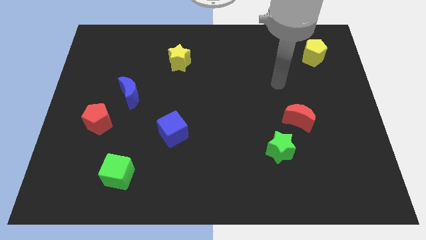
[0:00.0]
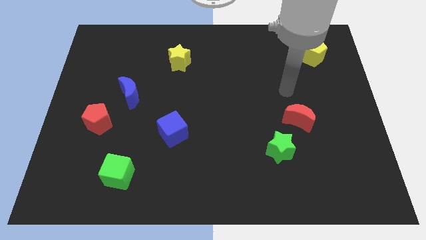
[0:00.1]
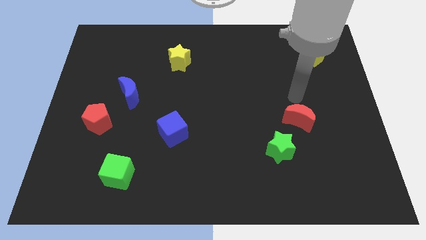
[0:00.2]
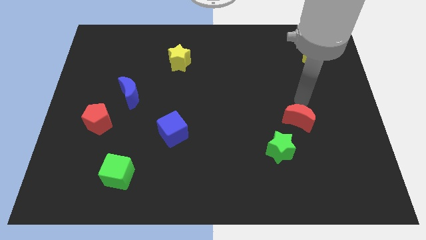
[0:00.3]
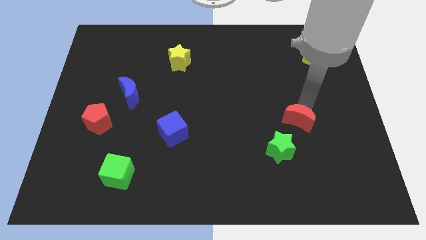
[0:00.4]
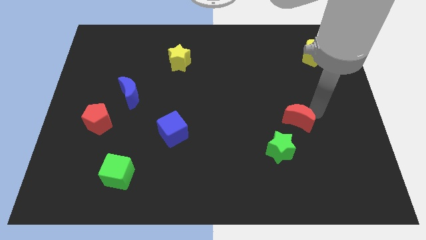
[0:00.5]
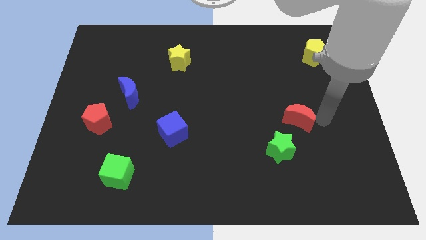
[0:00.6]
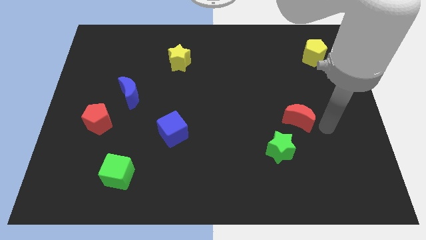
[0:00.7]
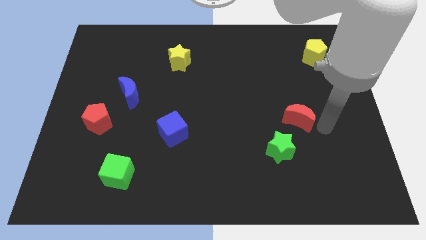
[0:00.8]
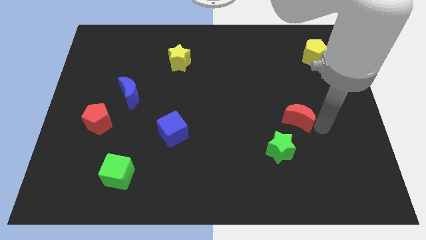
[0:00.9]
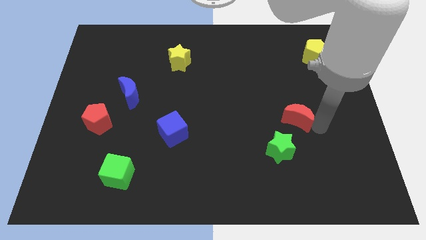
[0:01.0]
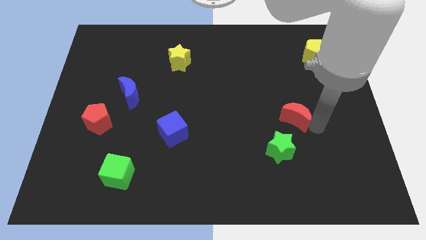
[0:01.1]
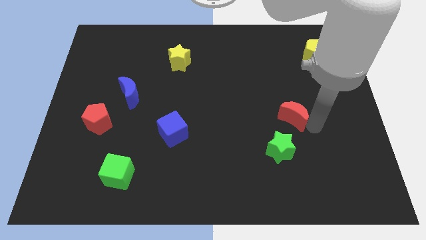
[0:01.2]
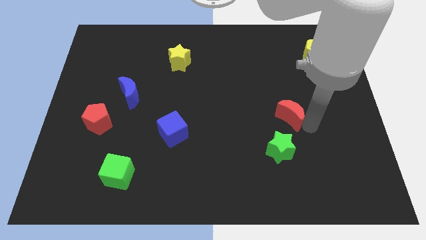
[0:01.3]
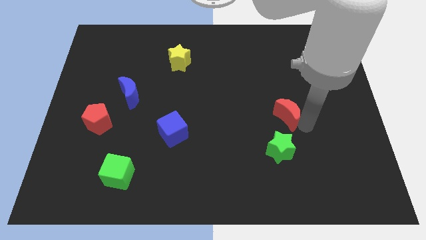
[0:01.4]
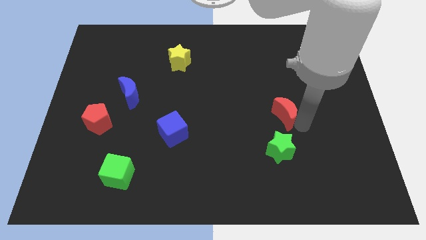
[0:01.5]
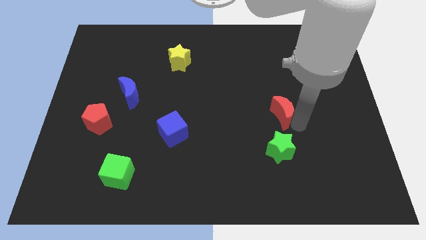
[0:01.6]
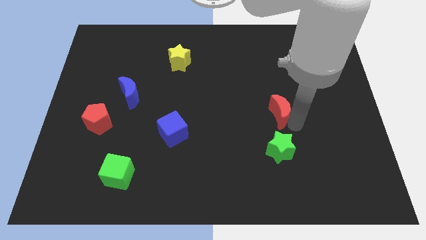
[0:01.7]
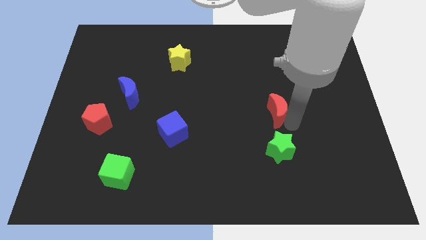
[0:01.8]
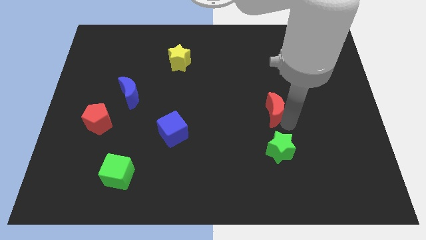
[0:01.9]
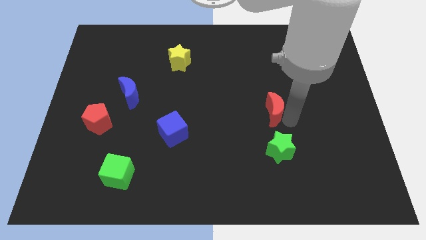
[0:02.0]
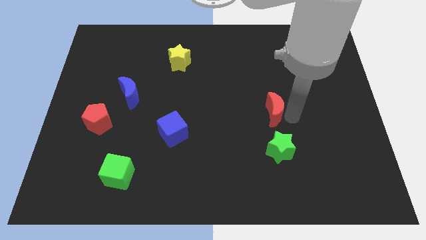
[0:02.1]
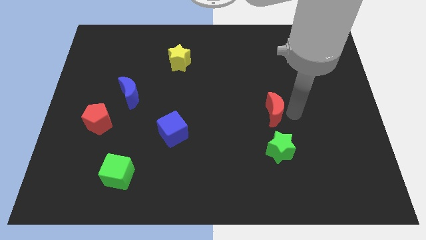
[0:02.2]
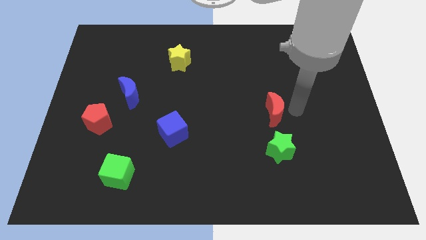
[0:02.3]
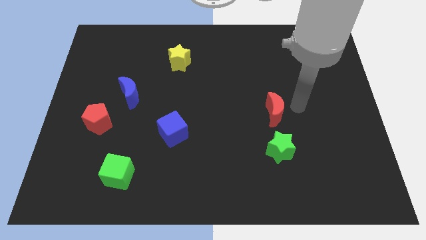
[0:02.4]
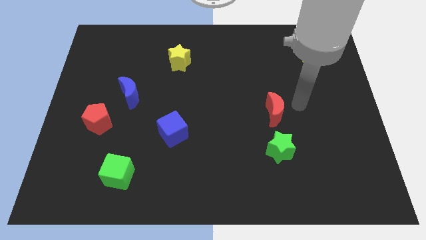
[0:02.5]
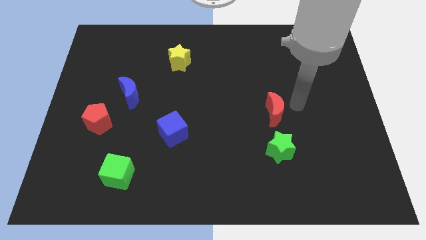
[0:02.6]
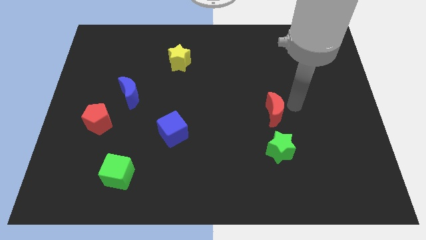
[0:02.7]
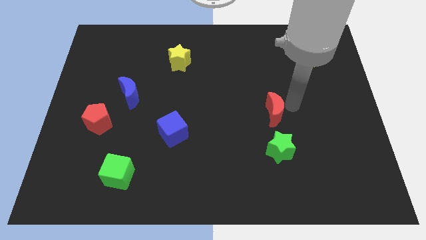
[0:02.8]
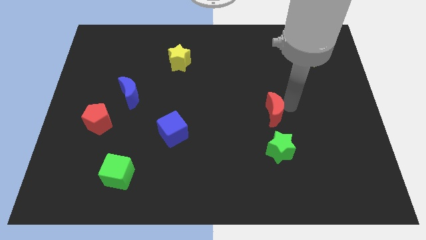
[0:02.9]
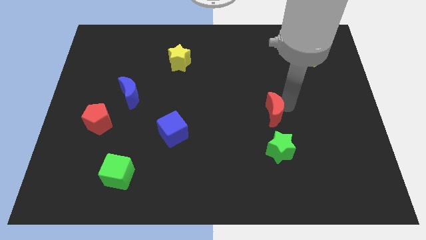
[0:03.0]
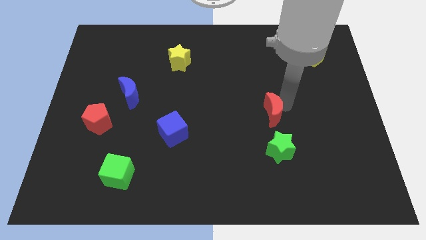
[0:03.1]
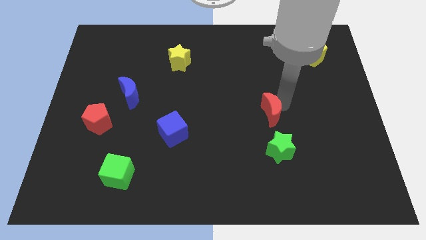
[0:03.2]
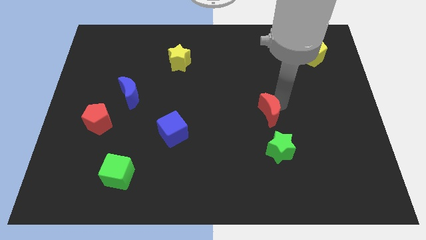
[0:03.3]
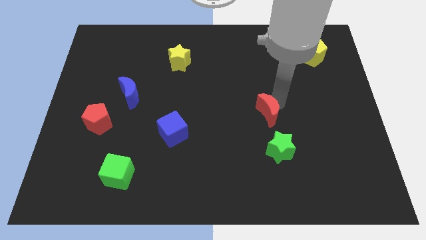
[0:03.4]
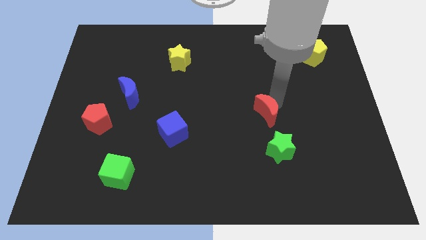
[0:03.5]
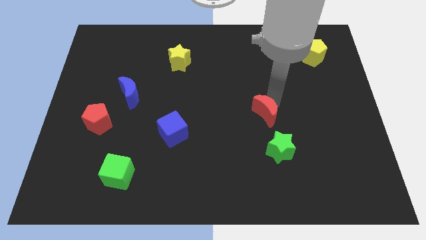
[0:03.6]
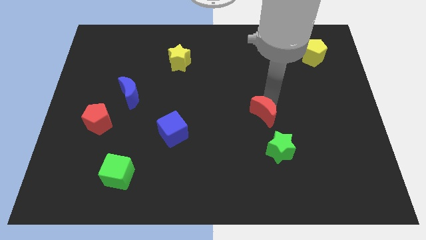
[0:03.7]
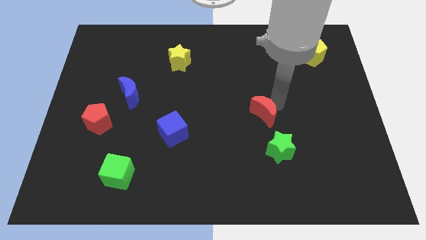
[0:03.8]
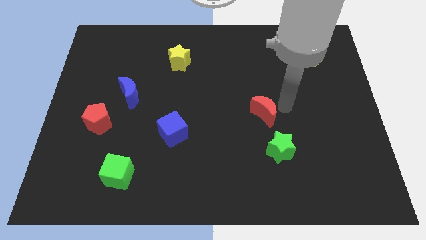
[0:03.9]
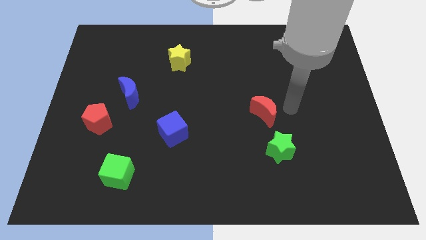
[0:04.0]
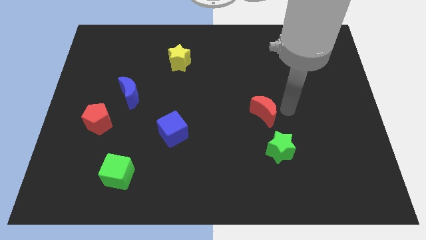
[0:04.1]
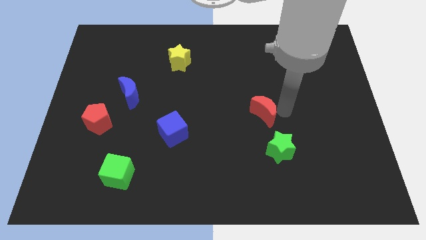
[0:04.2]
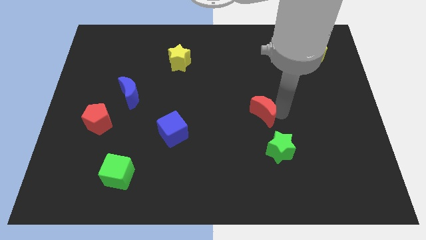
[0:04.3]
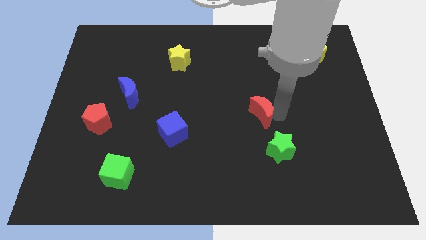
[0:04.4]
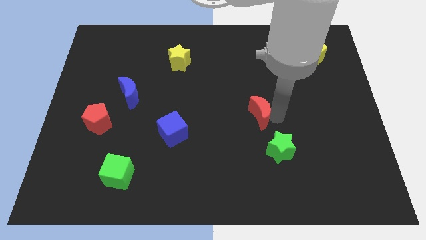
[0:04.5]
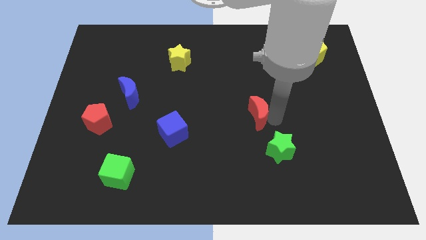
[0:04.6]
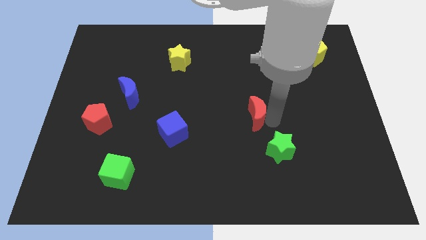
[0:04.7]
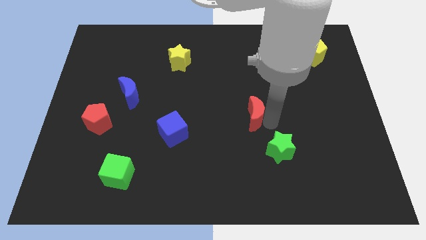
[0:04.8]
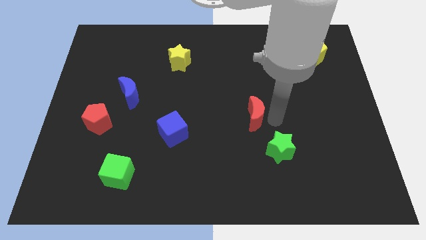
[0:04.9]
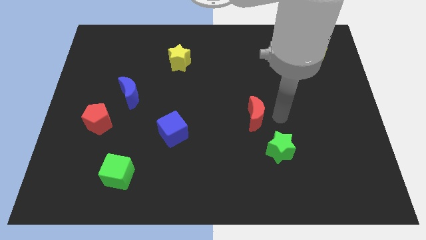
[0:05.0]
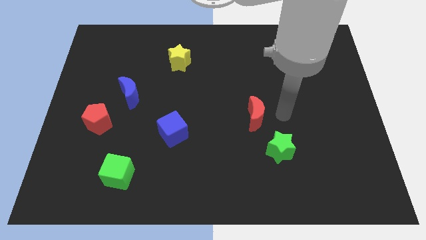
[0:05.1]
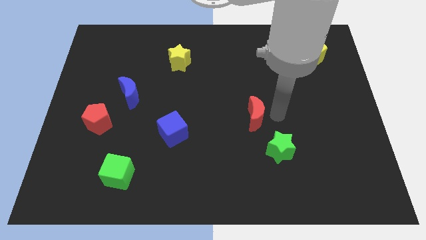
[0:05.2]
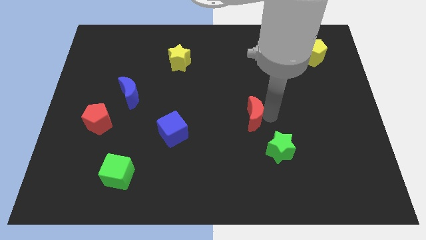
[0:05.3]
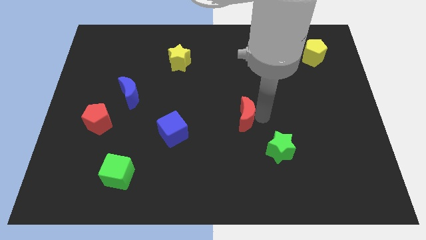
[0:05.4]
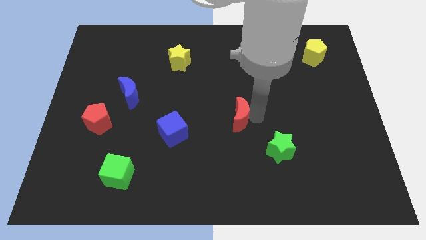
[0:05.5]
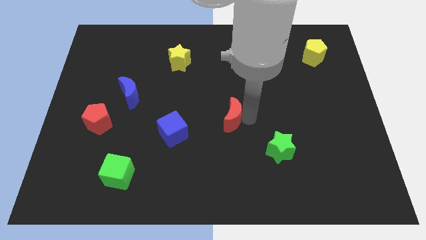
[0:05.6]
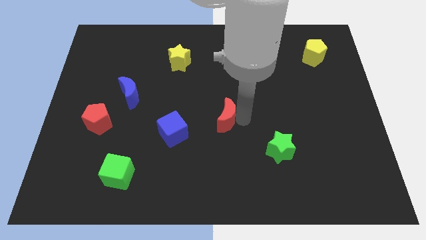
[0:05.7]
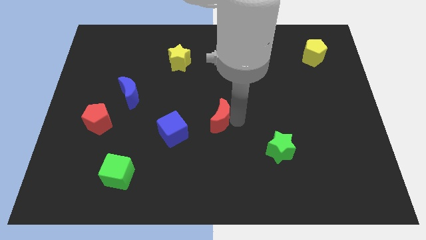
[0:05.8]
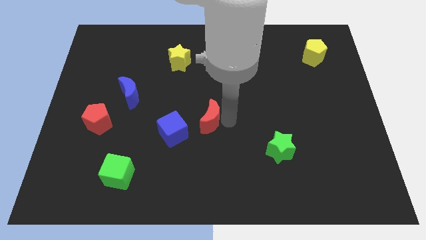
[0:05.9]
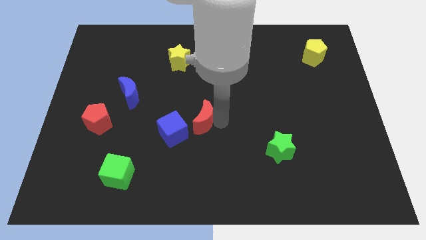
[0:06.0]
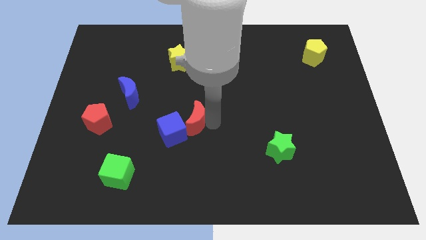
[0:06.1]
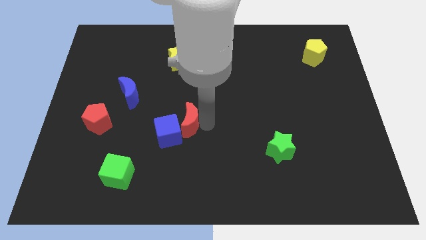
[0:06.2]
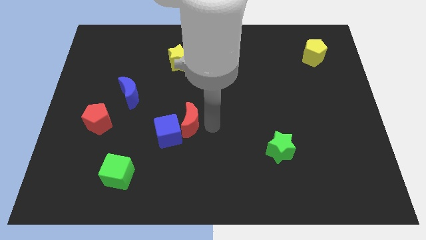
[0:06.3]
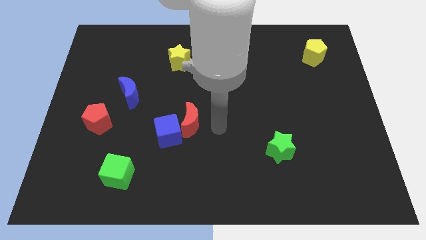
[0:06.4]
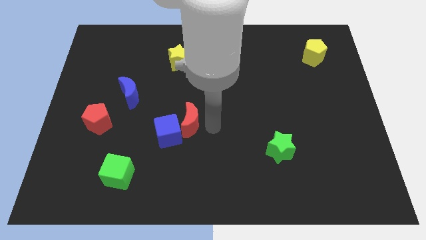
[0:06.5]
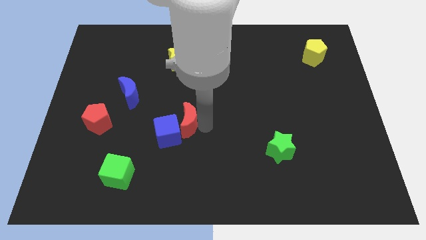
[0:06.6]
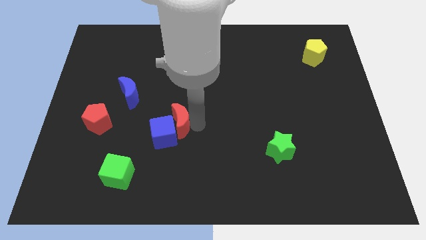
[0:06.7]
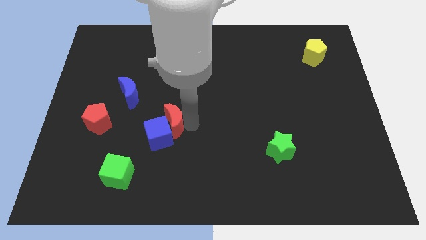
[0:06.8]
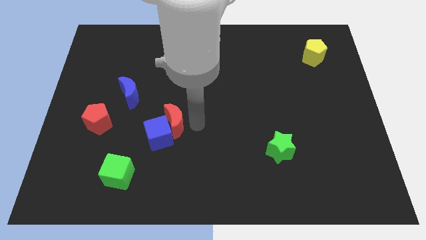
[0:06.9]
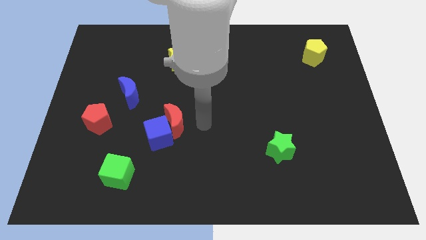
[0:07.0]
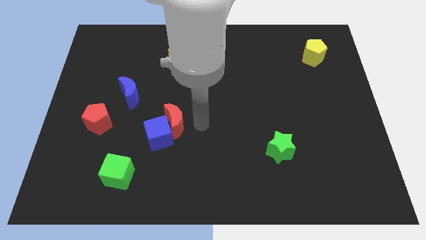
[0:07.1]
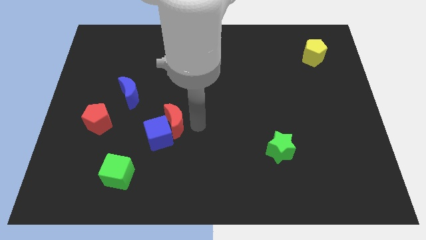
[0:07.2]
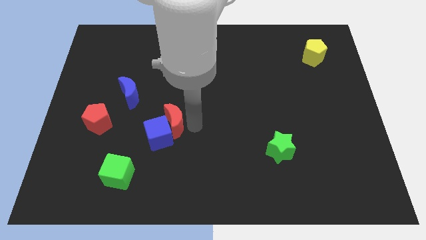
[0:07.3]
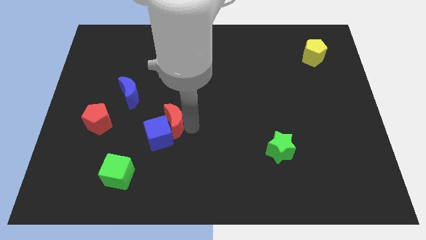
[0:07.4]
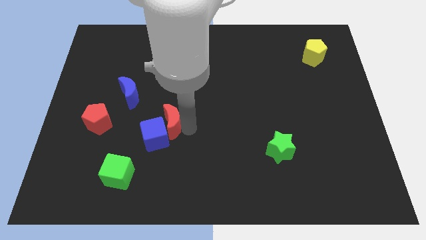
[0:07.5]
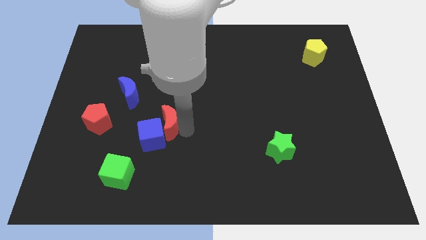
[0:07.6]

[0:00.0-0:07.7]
put the red moon just right of the red pentagon

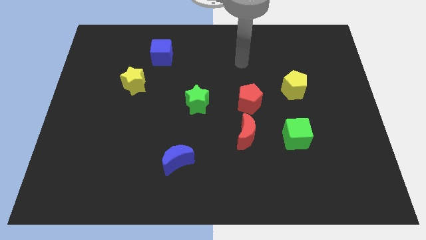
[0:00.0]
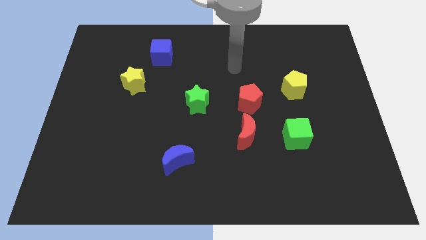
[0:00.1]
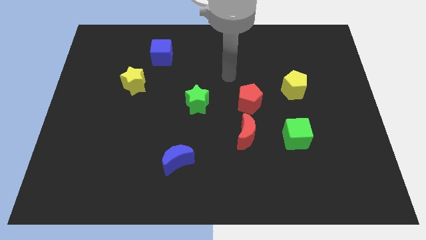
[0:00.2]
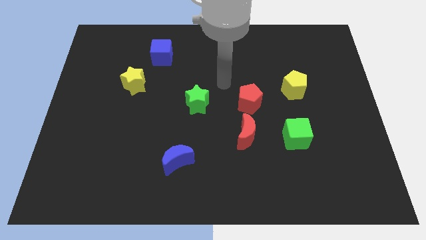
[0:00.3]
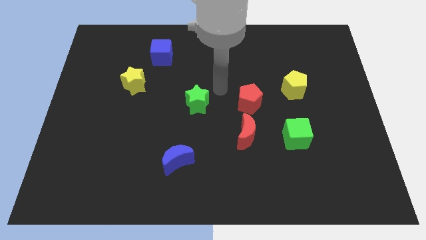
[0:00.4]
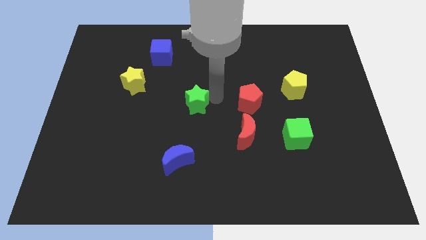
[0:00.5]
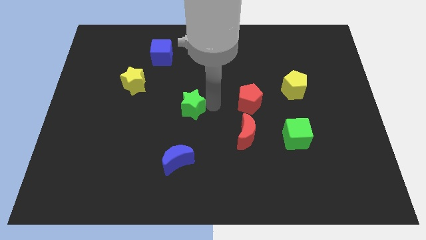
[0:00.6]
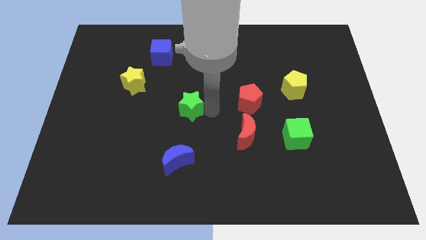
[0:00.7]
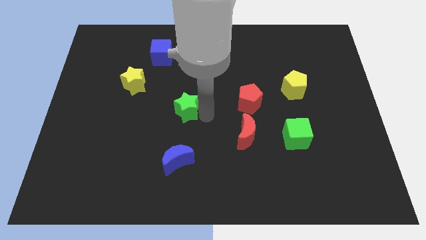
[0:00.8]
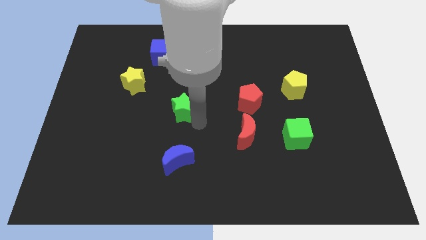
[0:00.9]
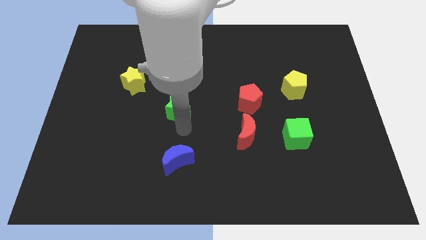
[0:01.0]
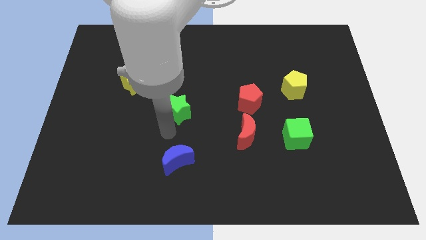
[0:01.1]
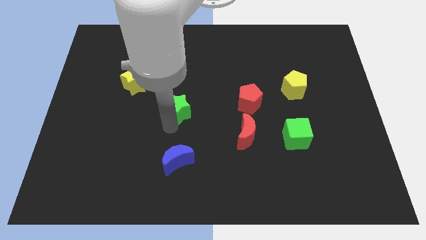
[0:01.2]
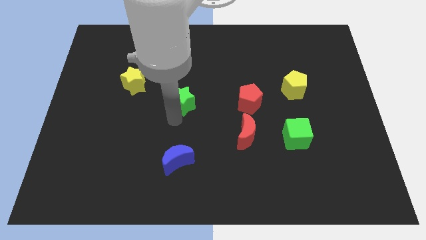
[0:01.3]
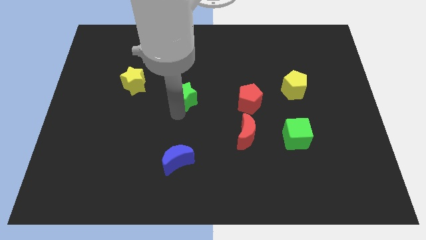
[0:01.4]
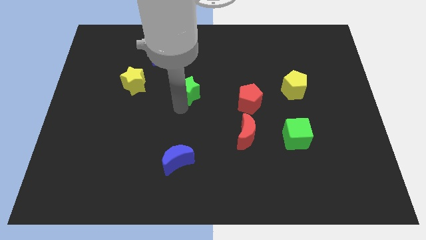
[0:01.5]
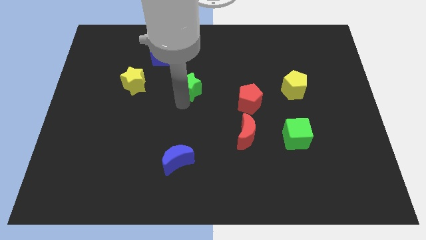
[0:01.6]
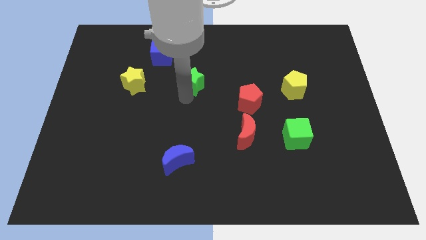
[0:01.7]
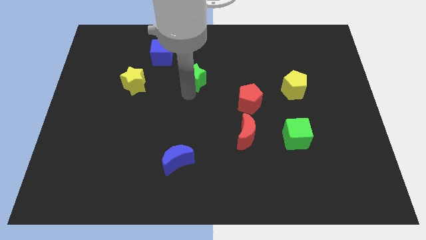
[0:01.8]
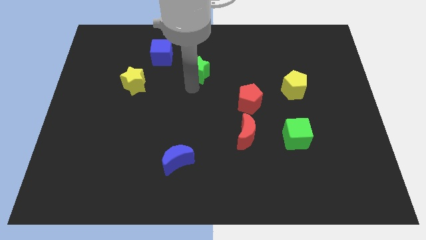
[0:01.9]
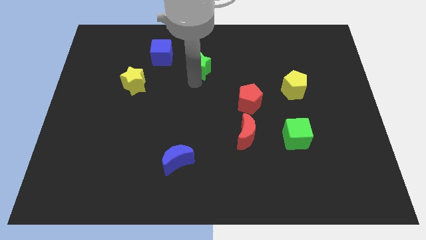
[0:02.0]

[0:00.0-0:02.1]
move the green star right of the blue cube
